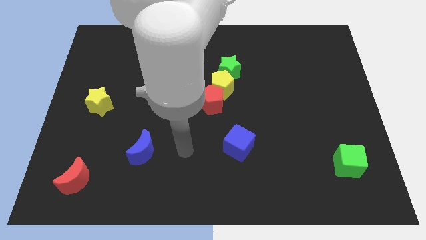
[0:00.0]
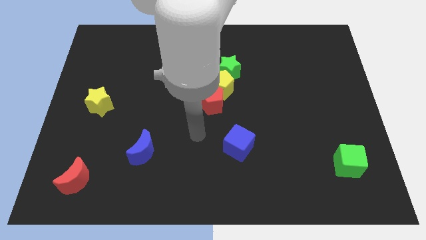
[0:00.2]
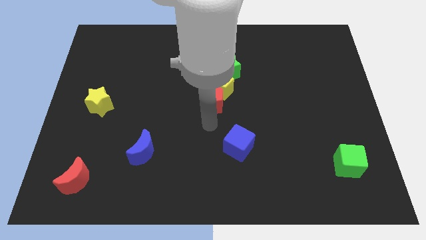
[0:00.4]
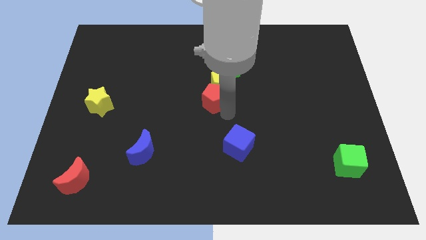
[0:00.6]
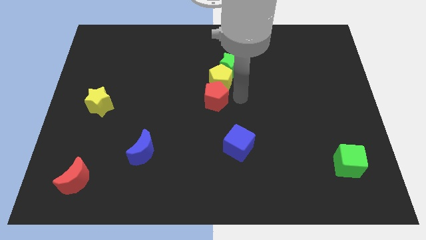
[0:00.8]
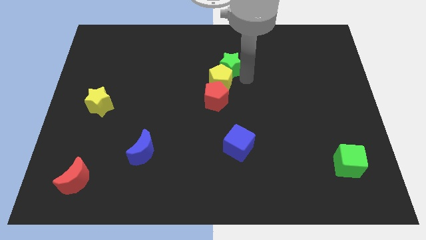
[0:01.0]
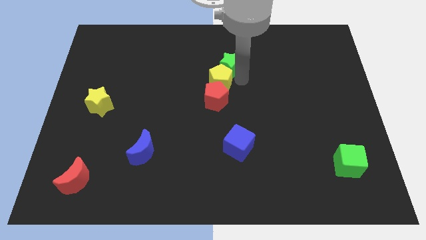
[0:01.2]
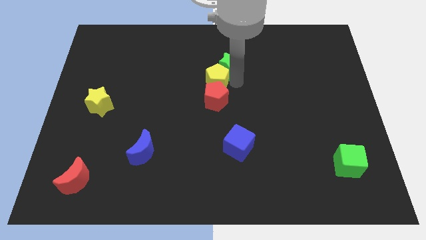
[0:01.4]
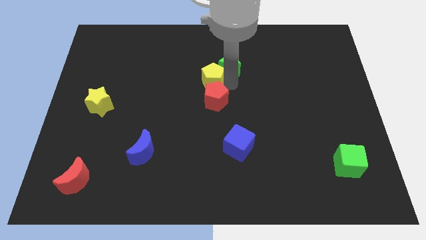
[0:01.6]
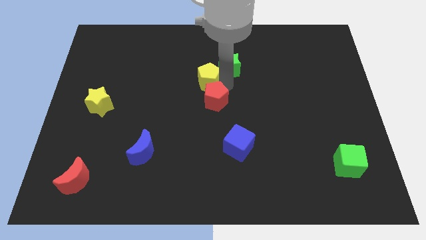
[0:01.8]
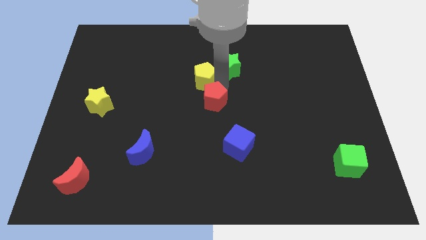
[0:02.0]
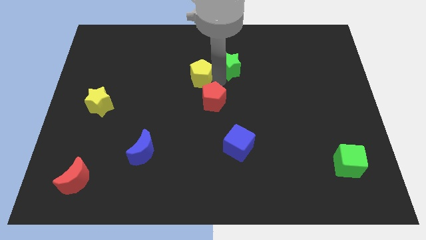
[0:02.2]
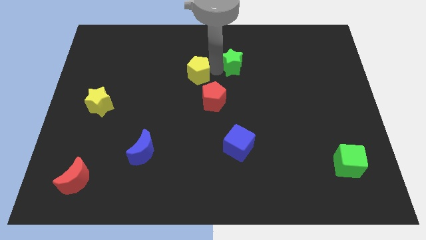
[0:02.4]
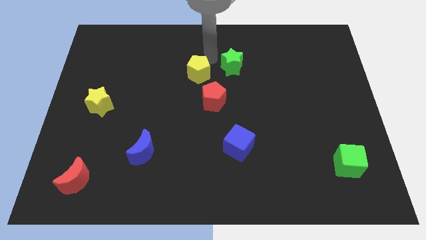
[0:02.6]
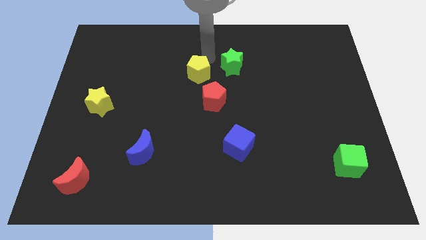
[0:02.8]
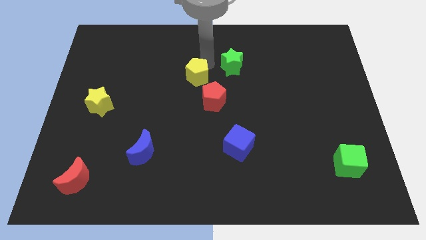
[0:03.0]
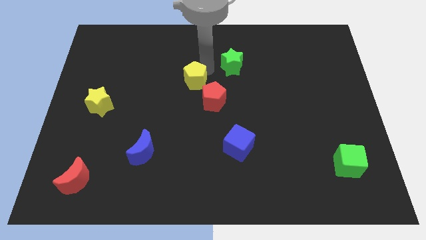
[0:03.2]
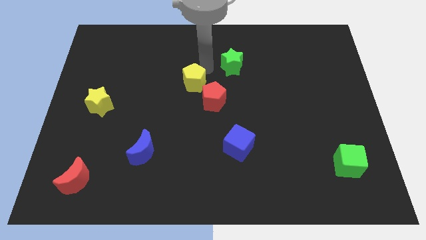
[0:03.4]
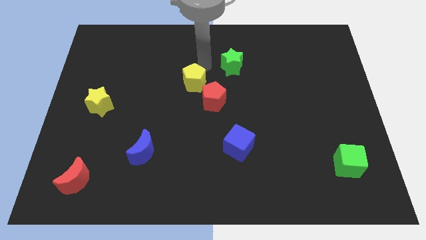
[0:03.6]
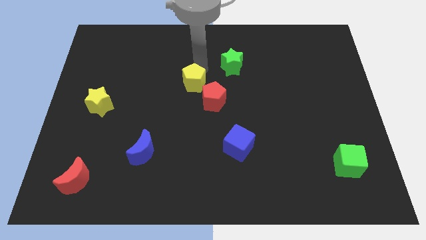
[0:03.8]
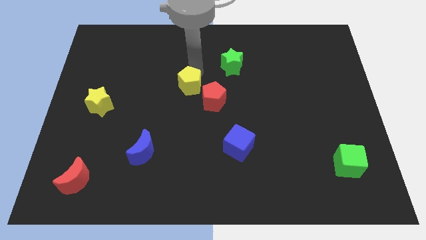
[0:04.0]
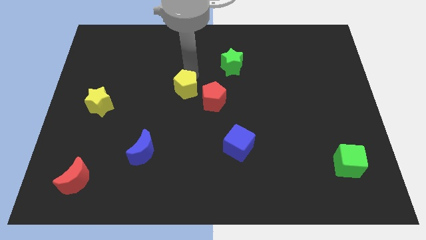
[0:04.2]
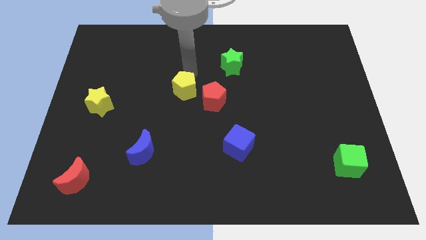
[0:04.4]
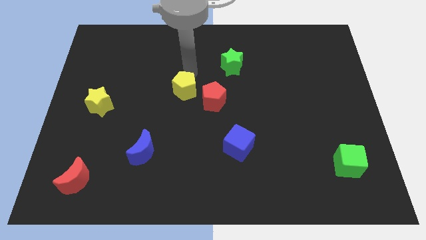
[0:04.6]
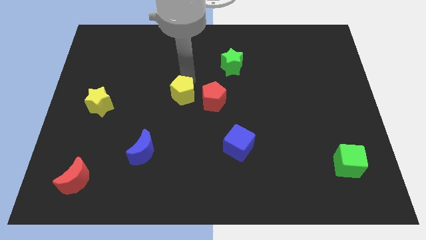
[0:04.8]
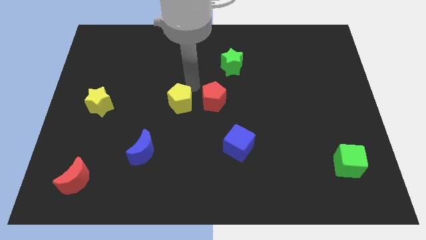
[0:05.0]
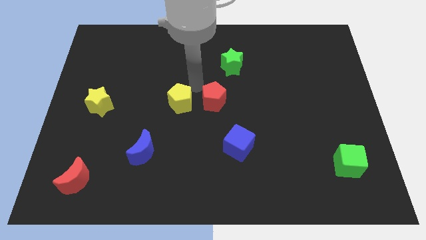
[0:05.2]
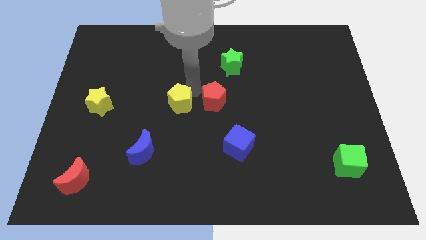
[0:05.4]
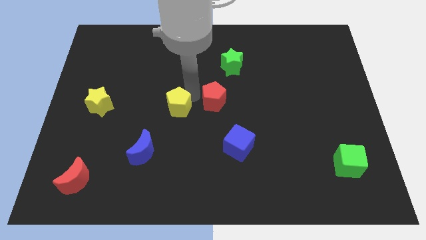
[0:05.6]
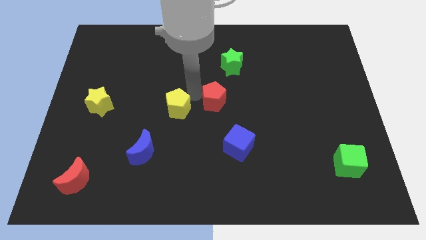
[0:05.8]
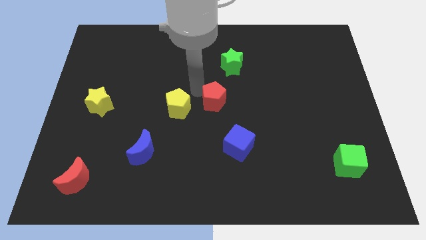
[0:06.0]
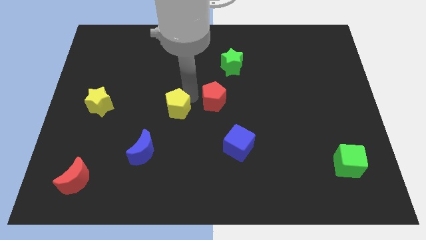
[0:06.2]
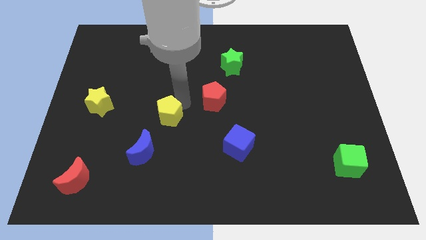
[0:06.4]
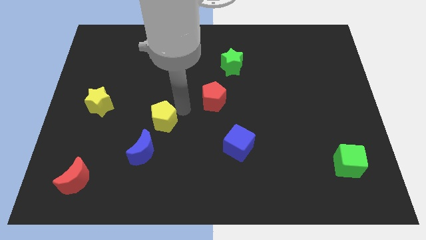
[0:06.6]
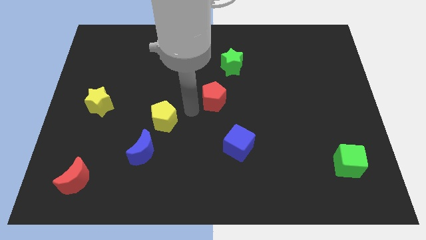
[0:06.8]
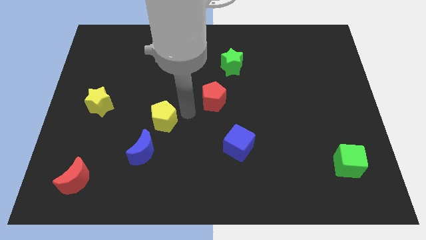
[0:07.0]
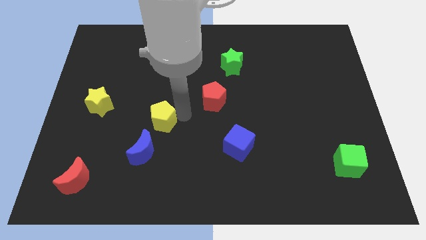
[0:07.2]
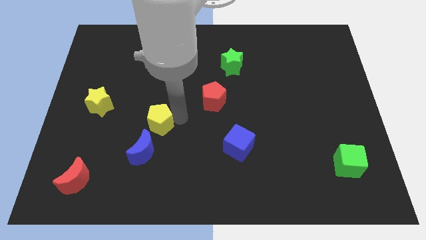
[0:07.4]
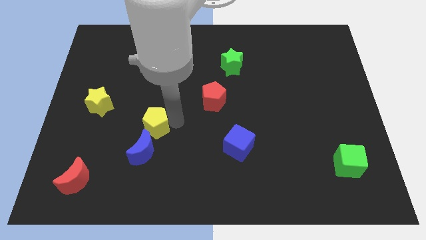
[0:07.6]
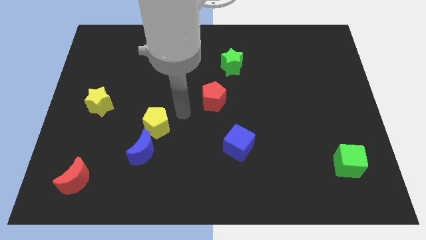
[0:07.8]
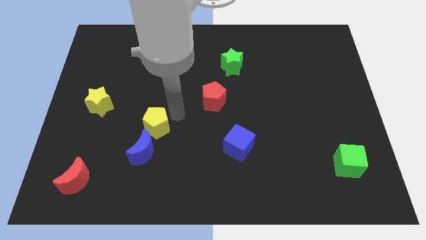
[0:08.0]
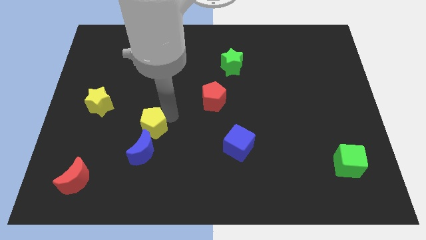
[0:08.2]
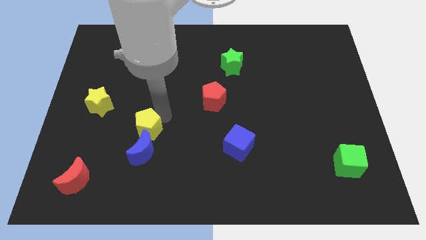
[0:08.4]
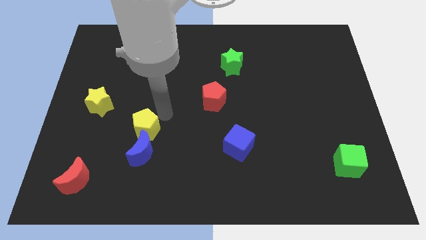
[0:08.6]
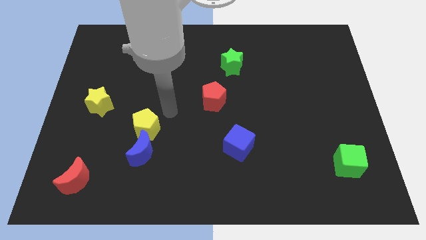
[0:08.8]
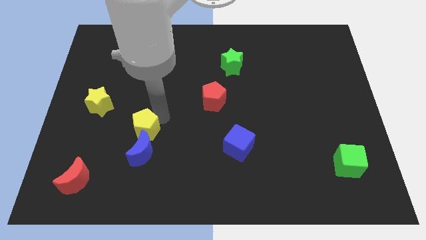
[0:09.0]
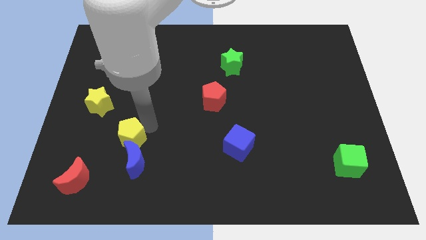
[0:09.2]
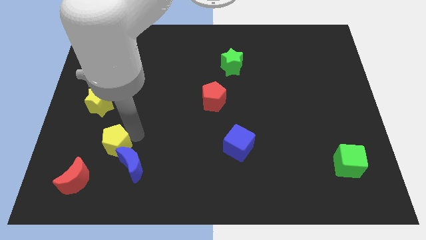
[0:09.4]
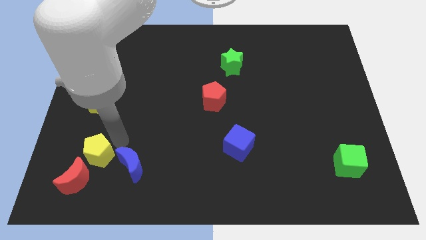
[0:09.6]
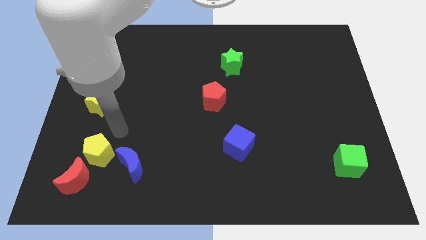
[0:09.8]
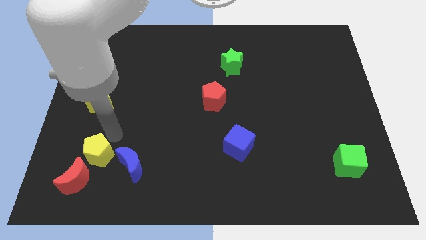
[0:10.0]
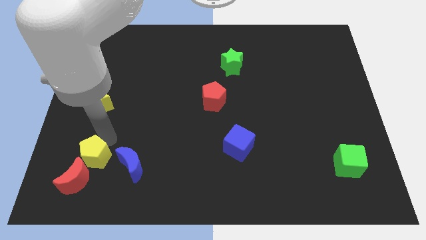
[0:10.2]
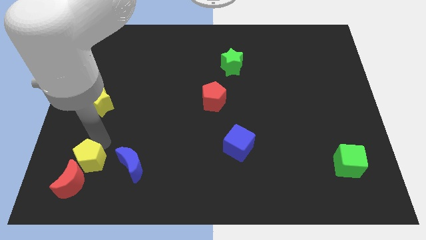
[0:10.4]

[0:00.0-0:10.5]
slide the yellow pentagon towards the red moon

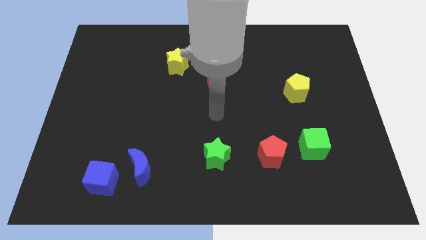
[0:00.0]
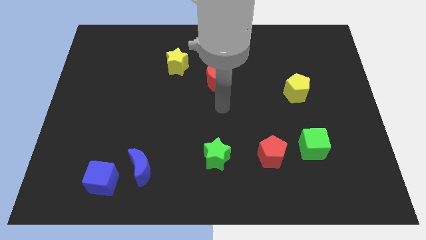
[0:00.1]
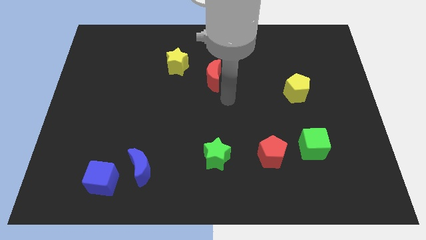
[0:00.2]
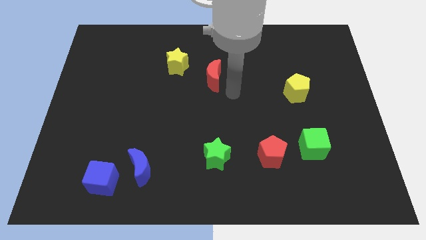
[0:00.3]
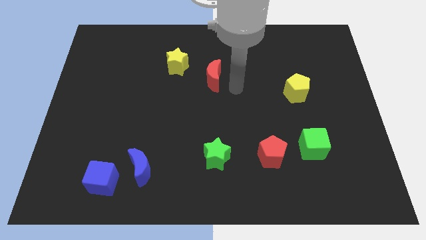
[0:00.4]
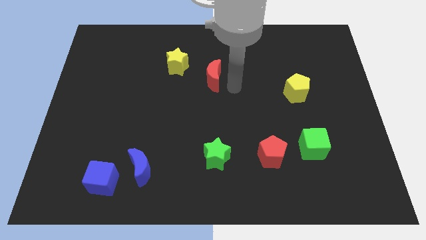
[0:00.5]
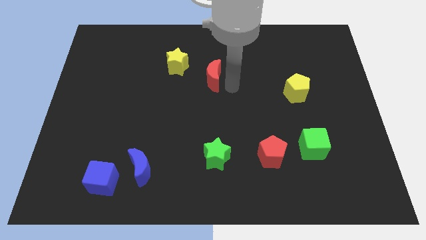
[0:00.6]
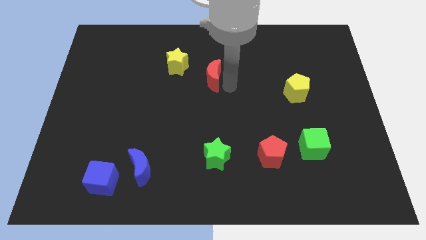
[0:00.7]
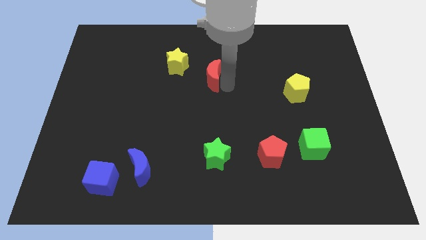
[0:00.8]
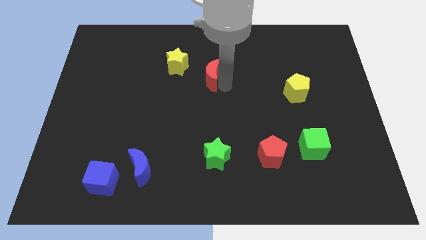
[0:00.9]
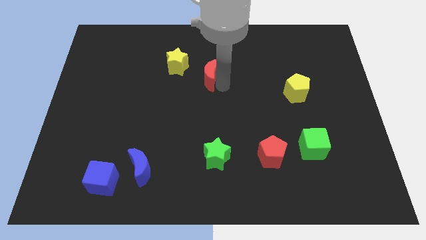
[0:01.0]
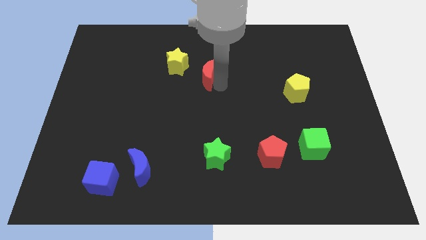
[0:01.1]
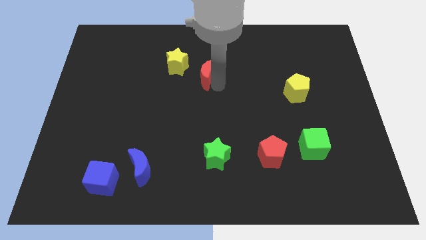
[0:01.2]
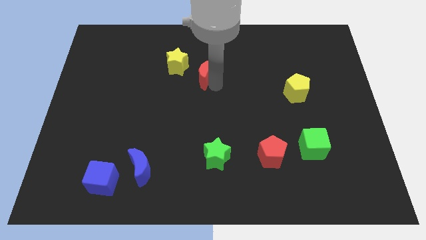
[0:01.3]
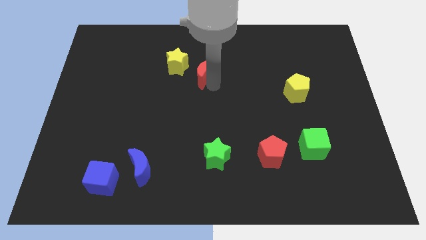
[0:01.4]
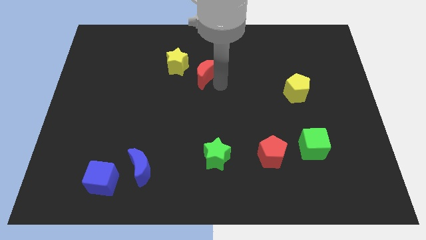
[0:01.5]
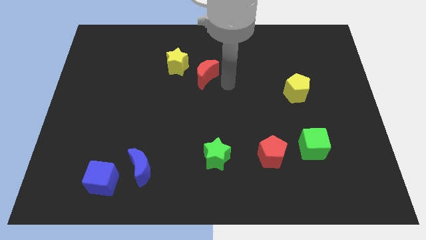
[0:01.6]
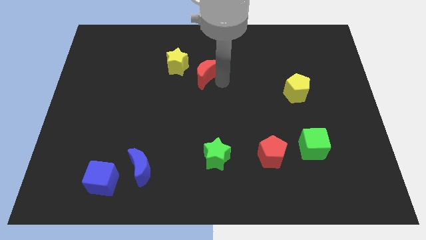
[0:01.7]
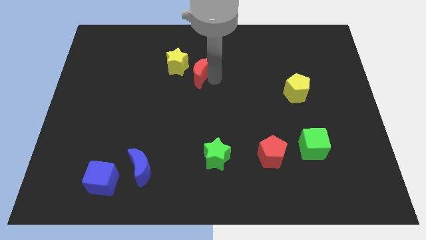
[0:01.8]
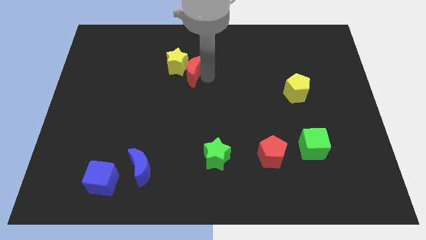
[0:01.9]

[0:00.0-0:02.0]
move the red moon towards the yellow star
